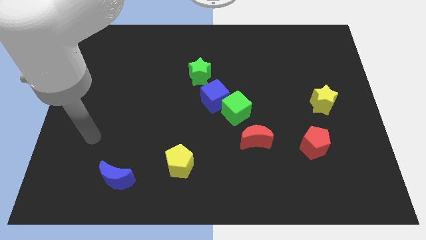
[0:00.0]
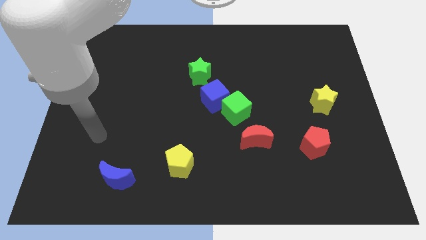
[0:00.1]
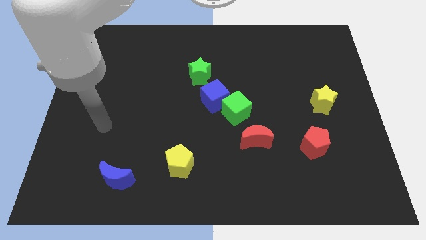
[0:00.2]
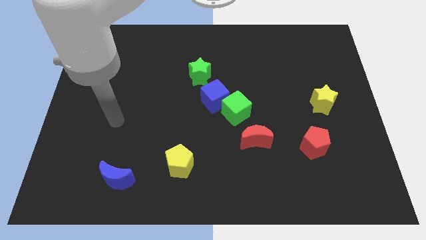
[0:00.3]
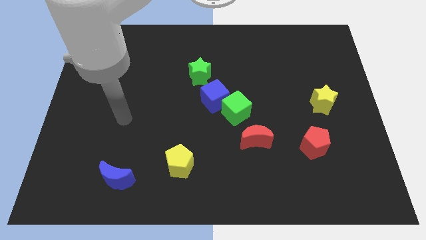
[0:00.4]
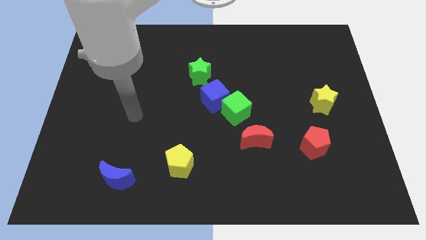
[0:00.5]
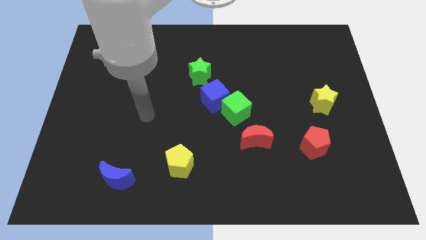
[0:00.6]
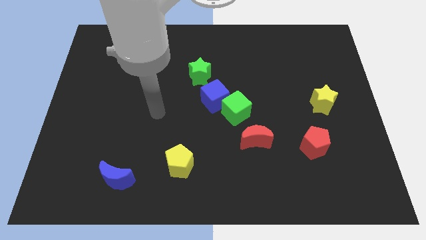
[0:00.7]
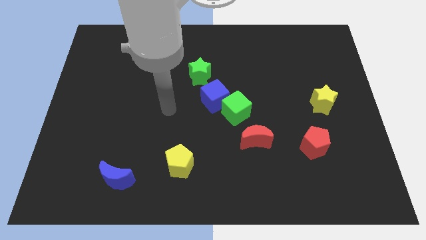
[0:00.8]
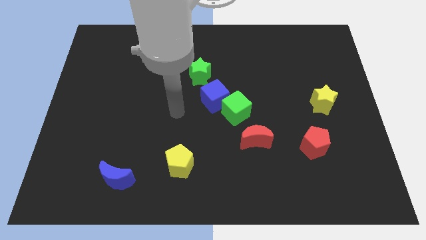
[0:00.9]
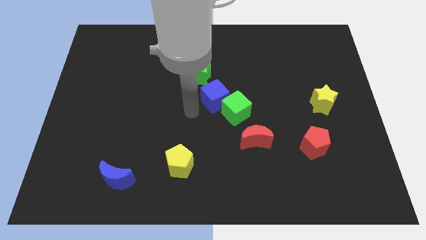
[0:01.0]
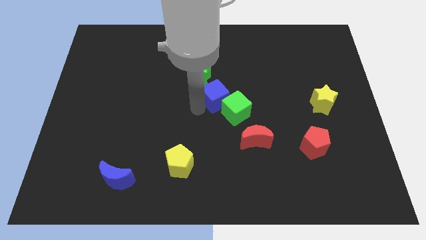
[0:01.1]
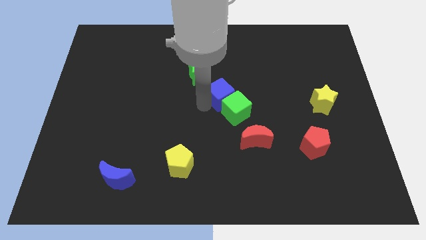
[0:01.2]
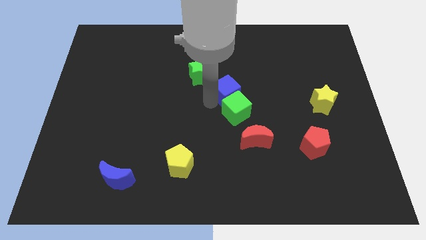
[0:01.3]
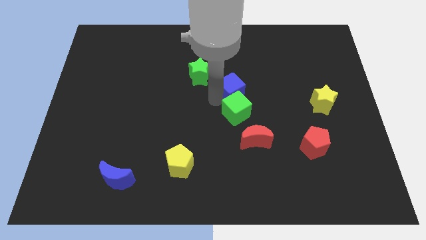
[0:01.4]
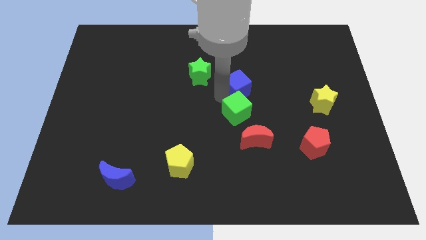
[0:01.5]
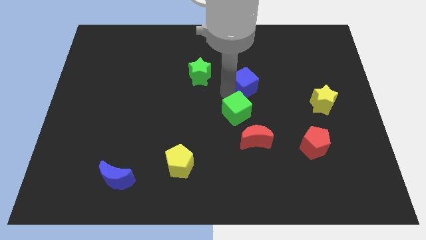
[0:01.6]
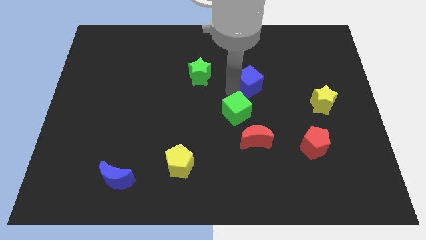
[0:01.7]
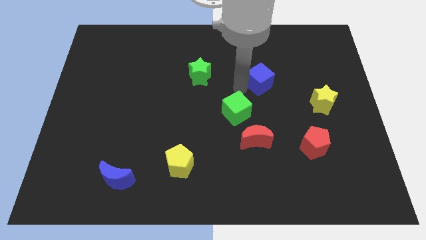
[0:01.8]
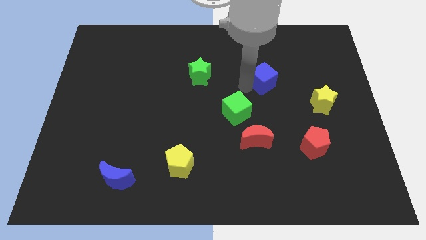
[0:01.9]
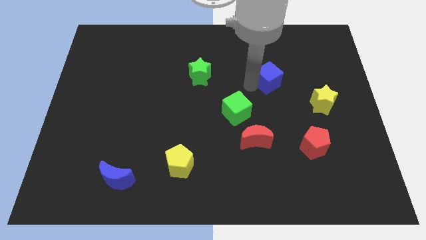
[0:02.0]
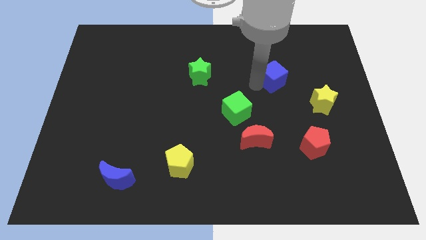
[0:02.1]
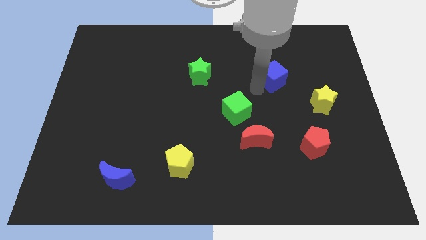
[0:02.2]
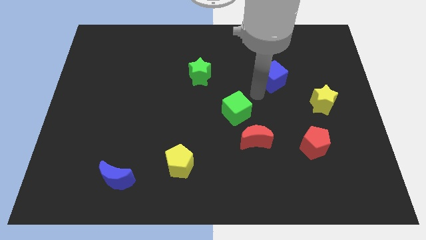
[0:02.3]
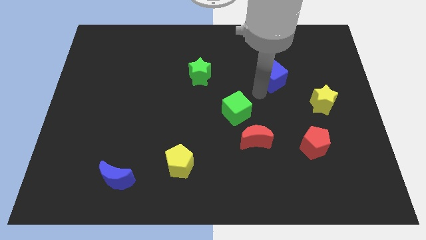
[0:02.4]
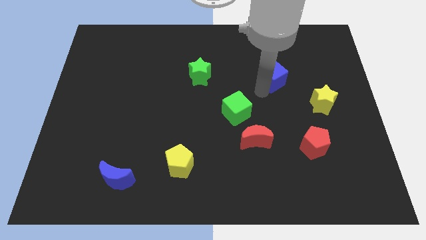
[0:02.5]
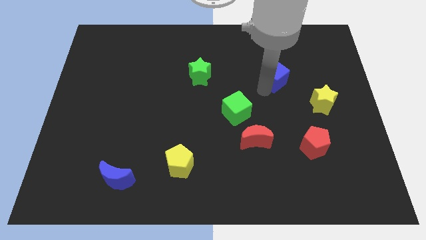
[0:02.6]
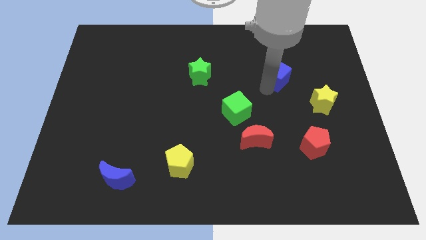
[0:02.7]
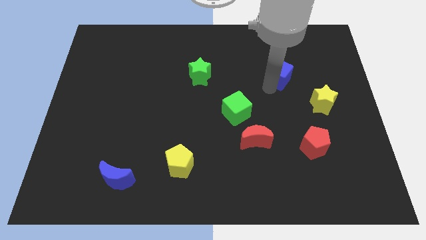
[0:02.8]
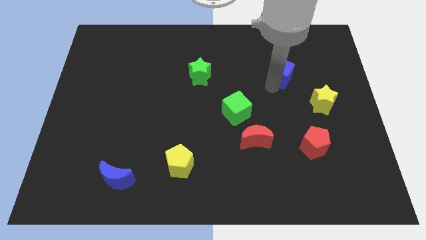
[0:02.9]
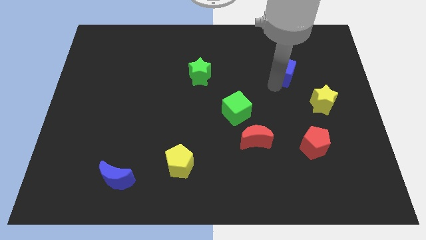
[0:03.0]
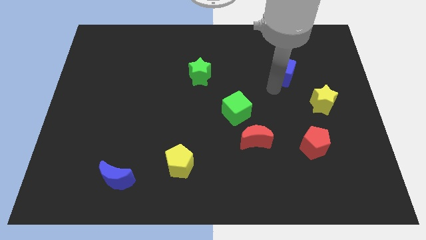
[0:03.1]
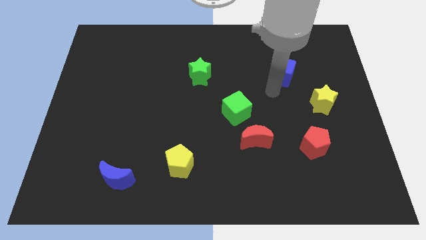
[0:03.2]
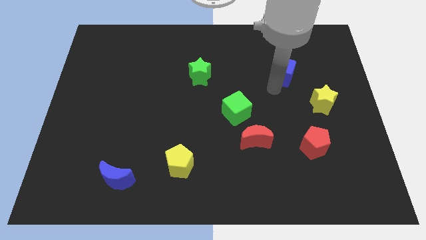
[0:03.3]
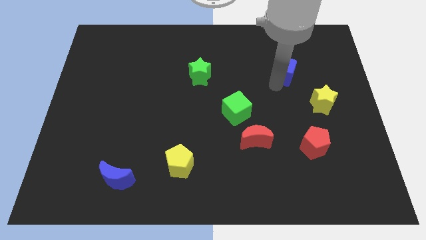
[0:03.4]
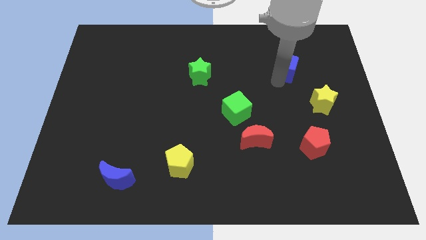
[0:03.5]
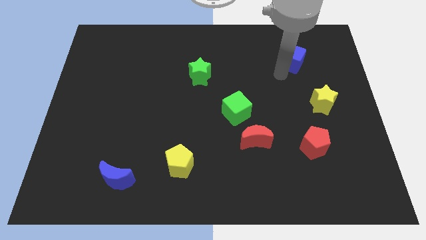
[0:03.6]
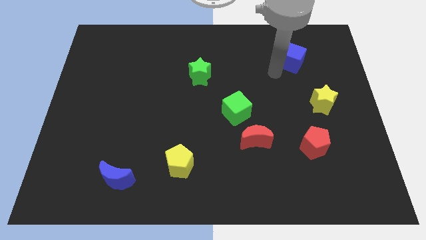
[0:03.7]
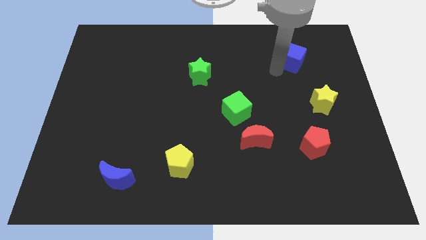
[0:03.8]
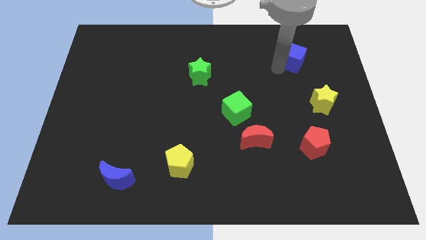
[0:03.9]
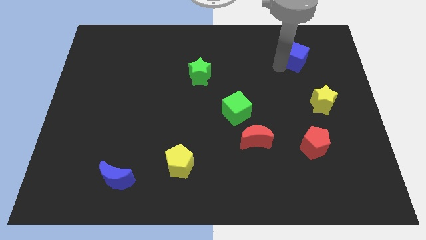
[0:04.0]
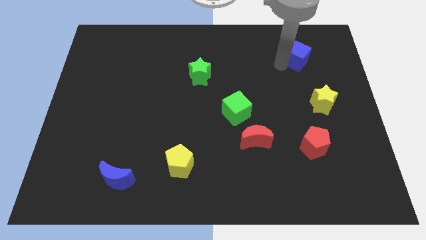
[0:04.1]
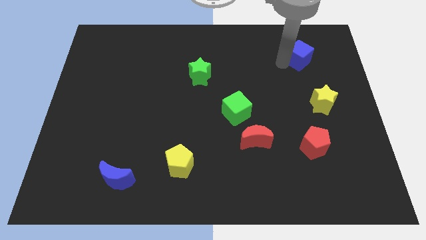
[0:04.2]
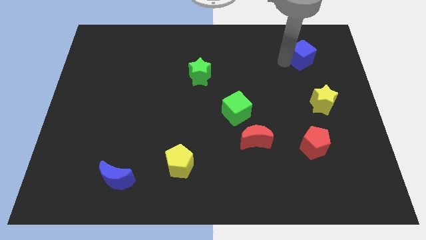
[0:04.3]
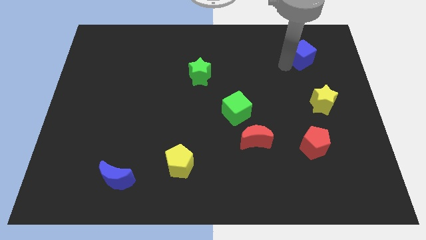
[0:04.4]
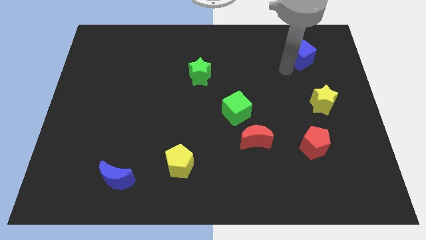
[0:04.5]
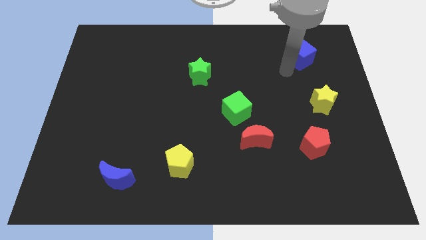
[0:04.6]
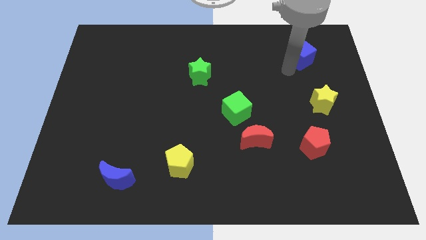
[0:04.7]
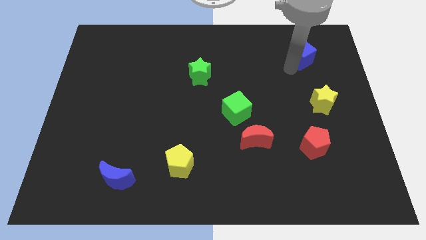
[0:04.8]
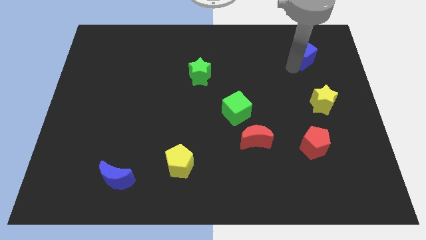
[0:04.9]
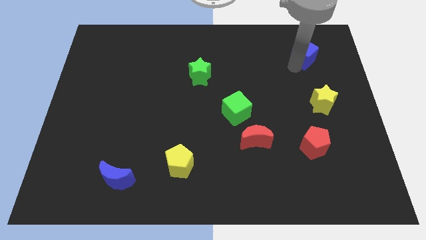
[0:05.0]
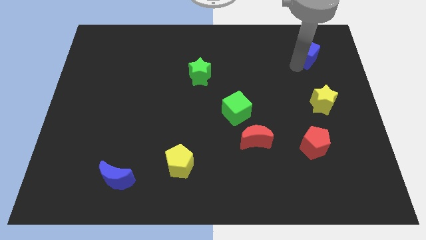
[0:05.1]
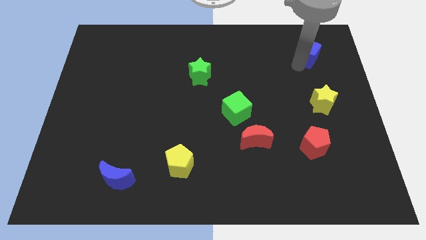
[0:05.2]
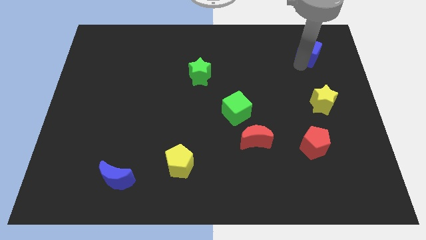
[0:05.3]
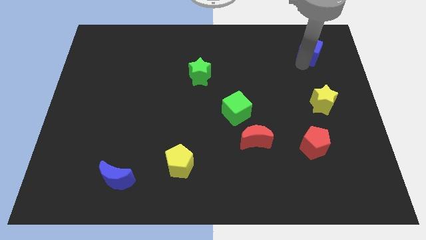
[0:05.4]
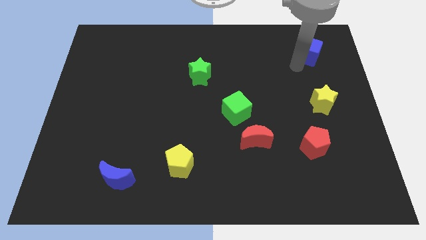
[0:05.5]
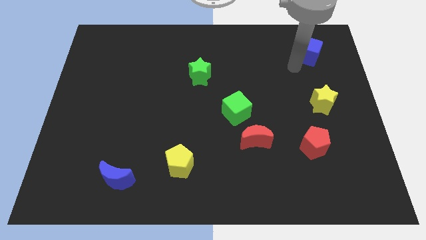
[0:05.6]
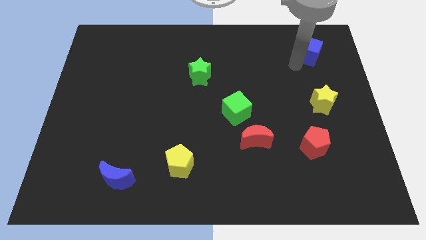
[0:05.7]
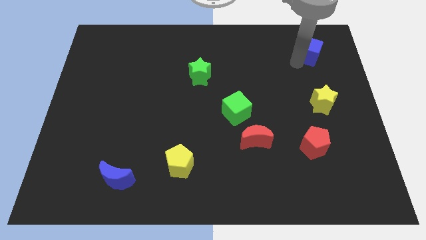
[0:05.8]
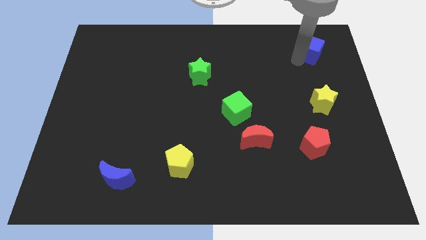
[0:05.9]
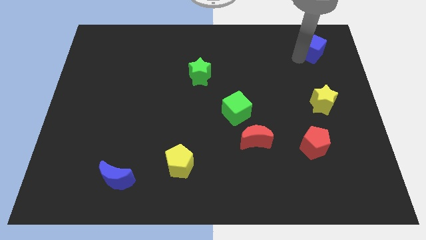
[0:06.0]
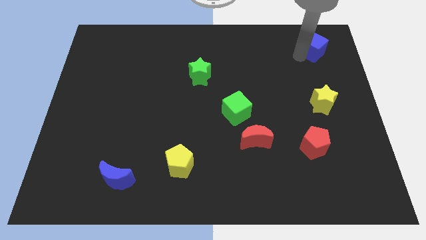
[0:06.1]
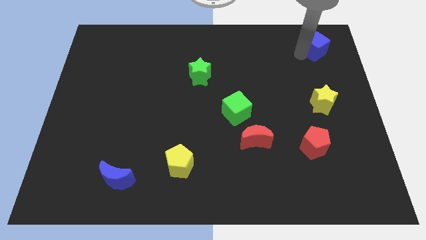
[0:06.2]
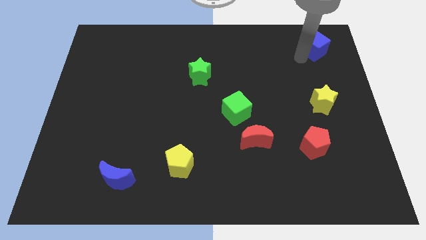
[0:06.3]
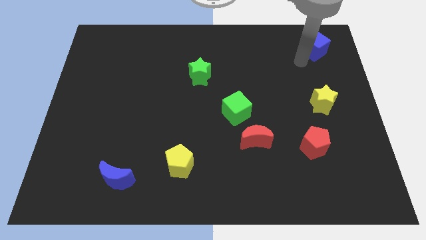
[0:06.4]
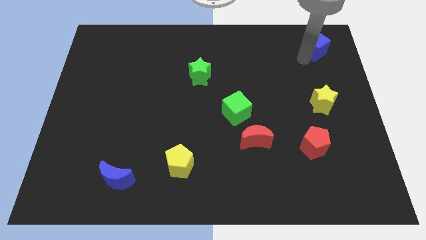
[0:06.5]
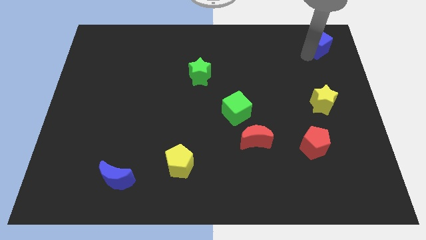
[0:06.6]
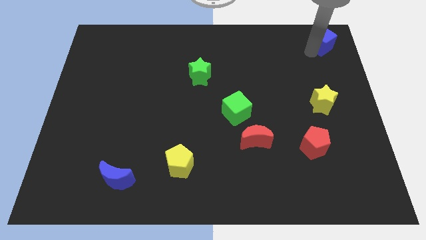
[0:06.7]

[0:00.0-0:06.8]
move the blue cube to the top right corner
